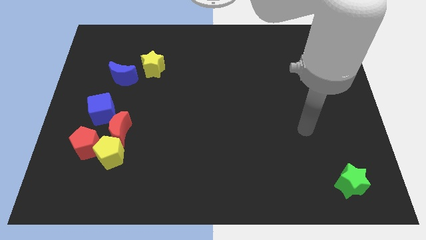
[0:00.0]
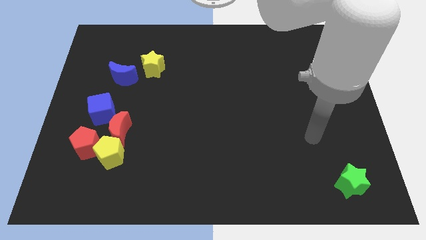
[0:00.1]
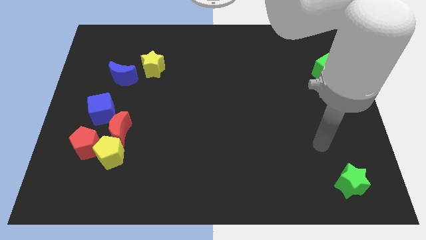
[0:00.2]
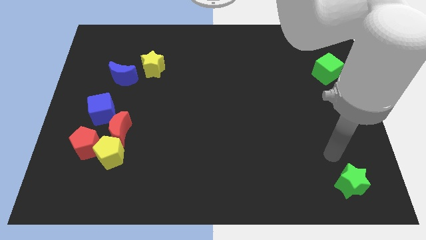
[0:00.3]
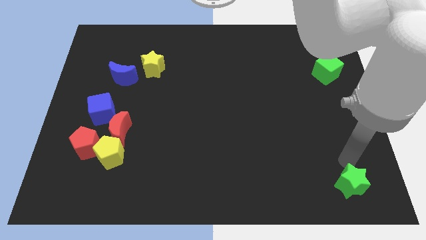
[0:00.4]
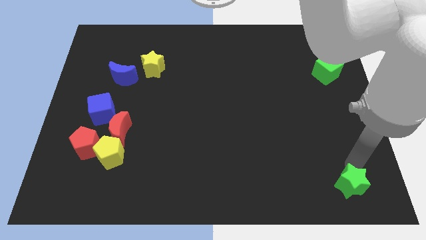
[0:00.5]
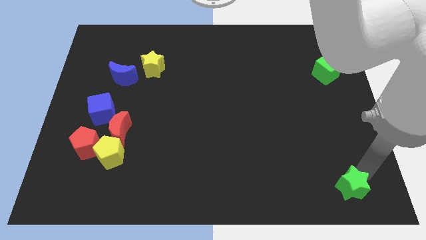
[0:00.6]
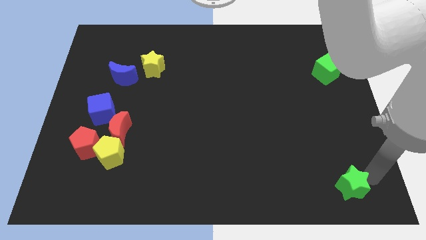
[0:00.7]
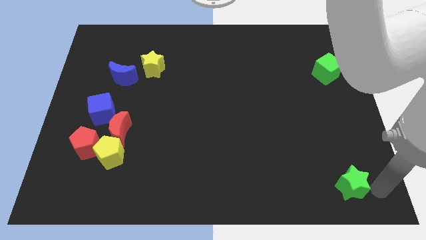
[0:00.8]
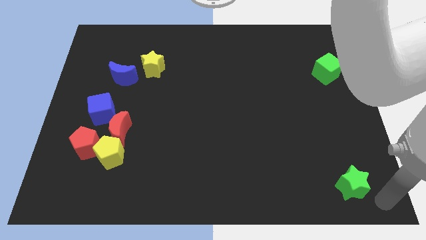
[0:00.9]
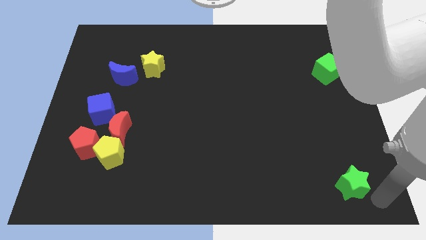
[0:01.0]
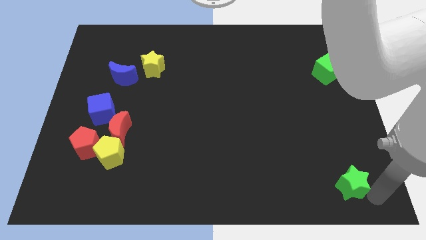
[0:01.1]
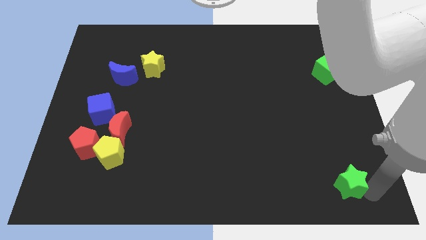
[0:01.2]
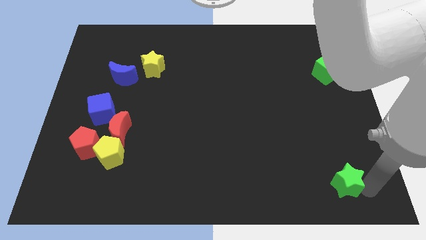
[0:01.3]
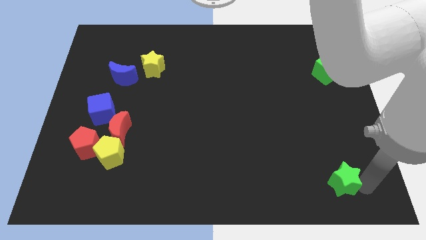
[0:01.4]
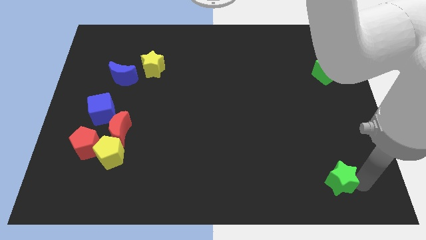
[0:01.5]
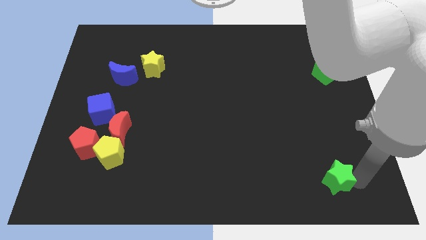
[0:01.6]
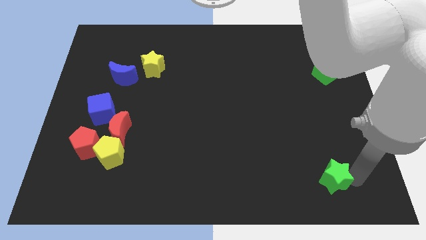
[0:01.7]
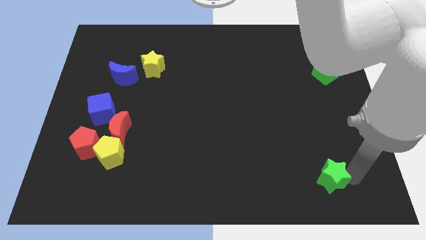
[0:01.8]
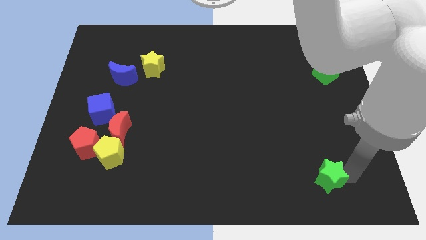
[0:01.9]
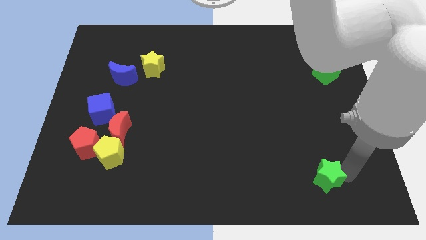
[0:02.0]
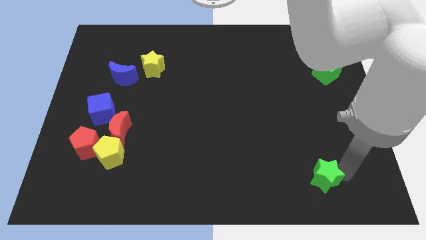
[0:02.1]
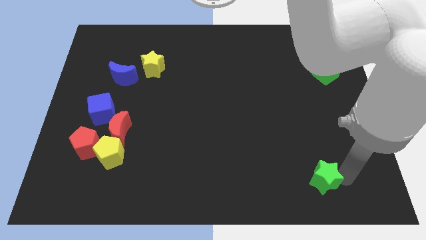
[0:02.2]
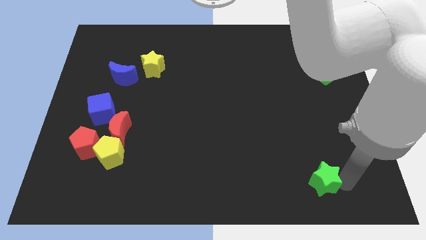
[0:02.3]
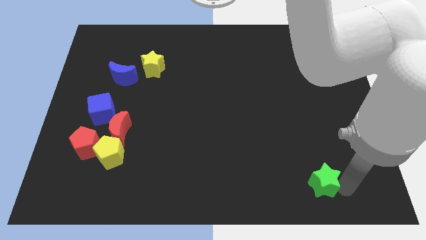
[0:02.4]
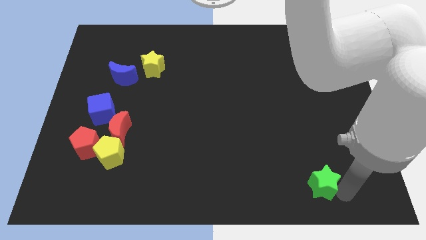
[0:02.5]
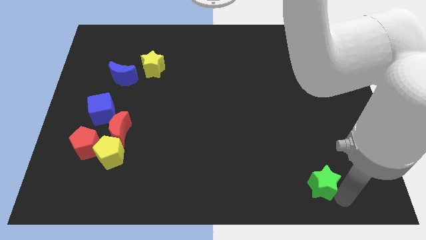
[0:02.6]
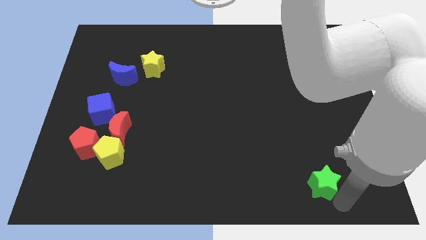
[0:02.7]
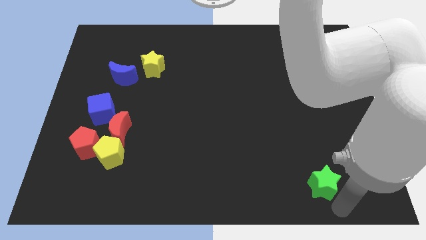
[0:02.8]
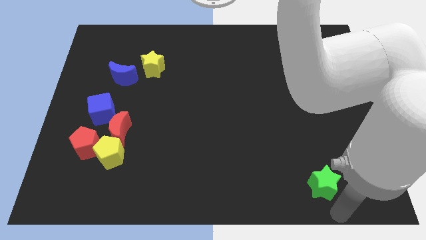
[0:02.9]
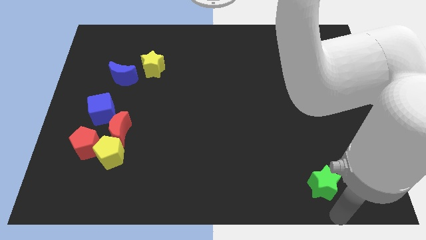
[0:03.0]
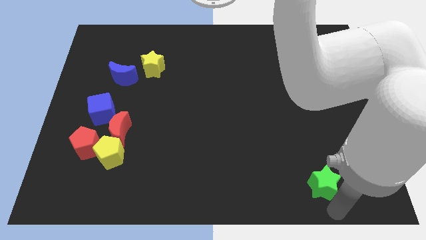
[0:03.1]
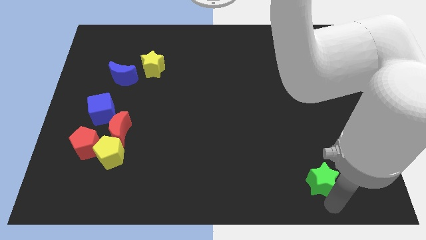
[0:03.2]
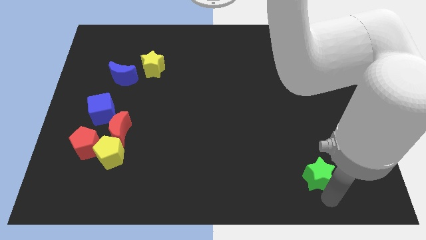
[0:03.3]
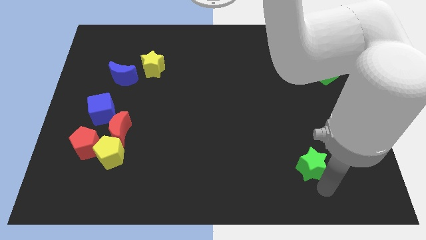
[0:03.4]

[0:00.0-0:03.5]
push the green star somewhat diagonally upwards and to the left

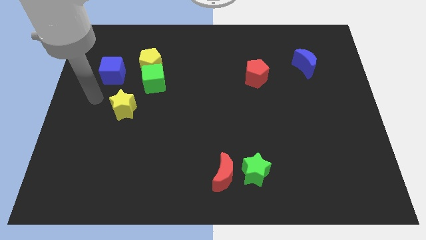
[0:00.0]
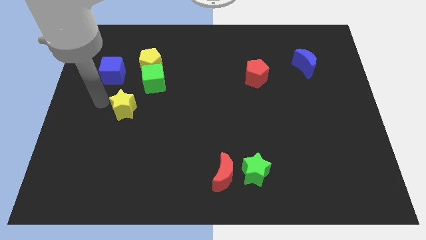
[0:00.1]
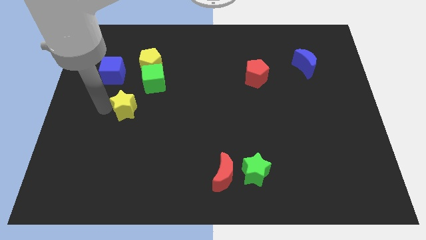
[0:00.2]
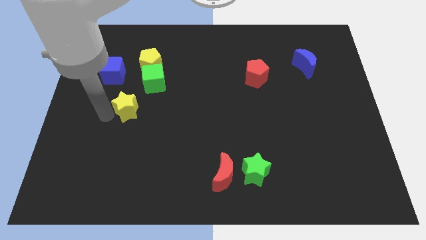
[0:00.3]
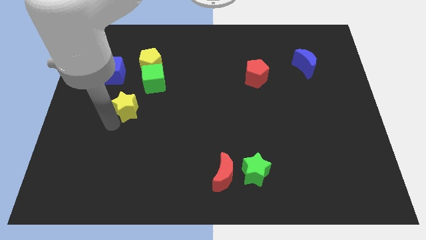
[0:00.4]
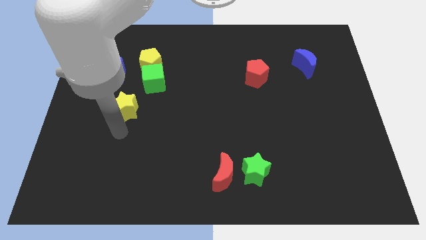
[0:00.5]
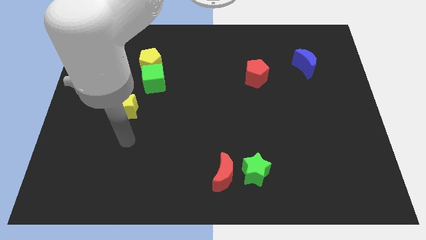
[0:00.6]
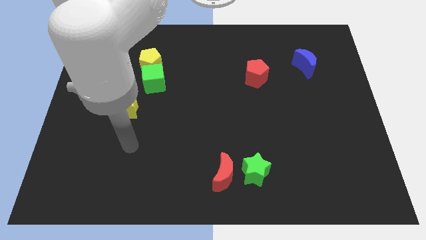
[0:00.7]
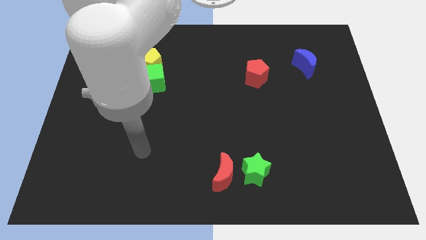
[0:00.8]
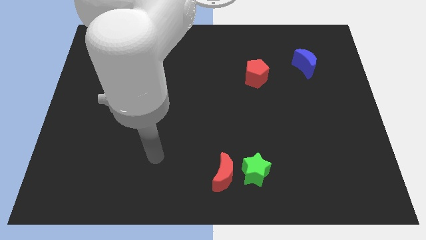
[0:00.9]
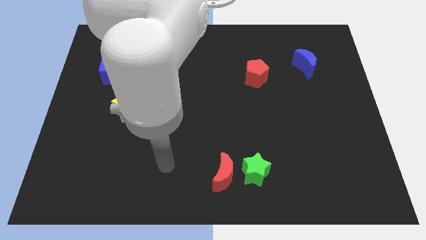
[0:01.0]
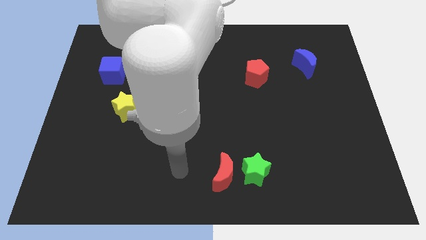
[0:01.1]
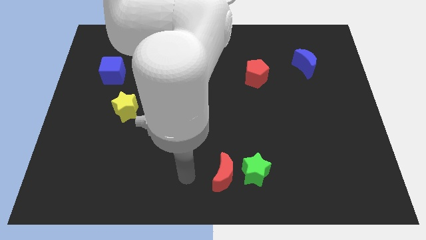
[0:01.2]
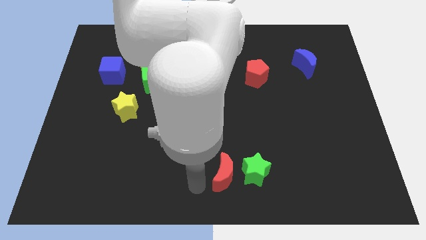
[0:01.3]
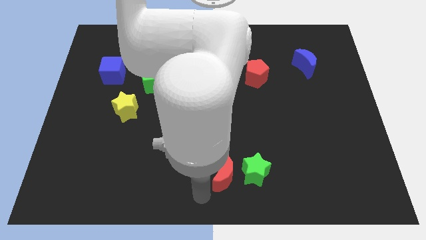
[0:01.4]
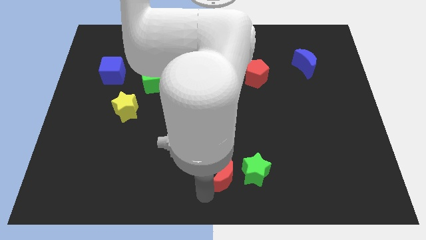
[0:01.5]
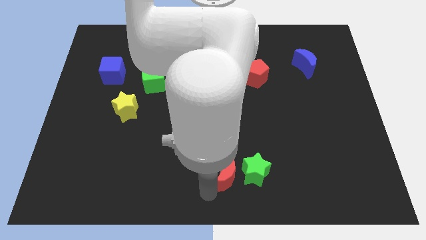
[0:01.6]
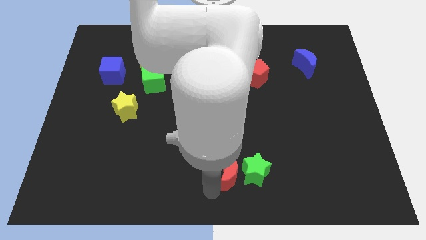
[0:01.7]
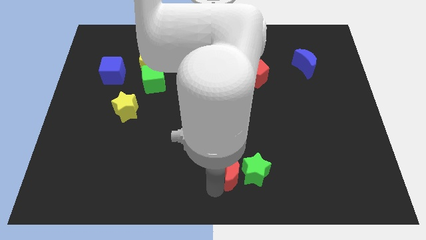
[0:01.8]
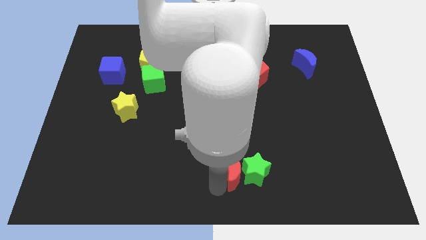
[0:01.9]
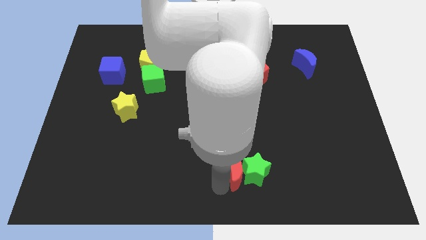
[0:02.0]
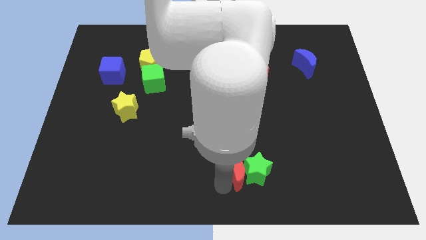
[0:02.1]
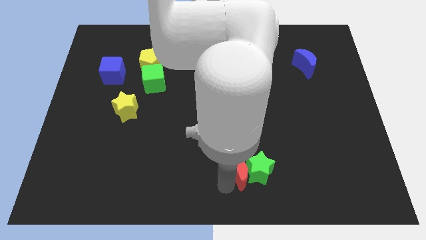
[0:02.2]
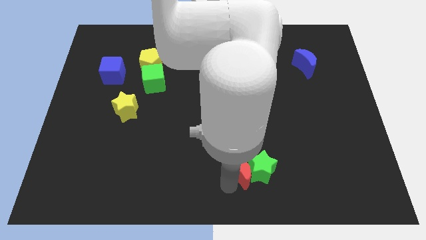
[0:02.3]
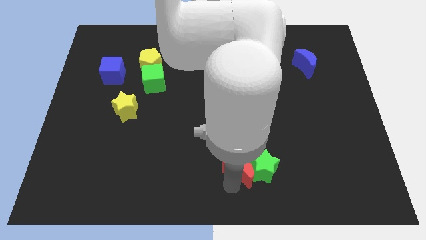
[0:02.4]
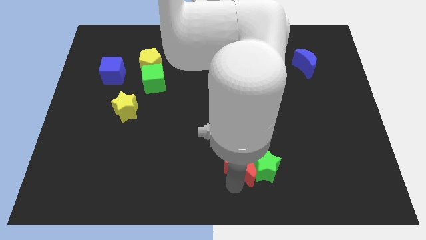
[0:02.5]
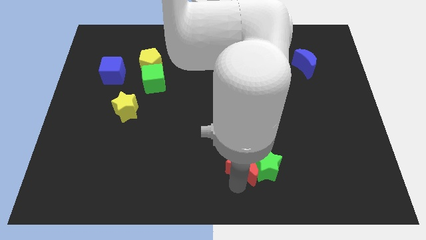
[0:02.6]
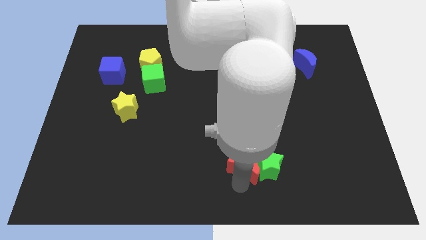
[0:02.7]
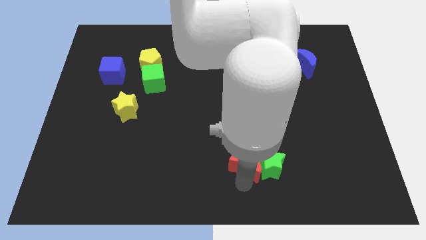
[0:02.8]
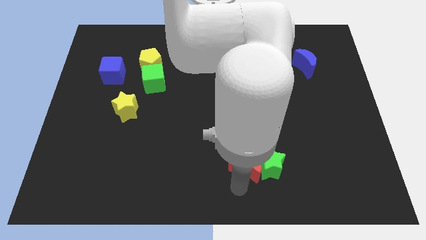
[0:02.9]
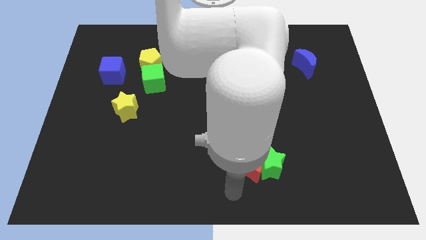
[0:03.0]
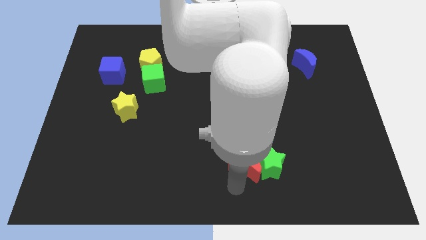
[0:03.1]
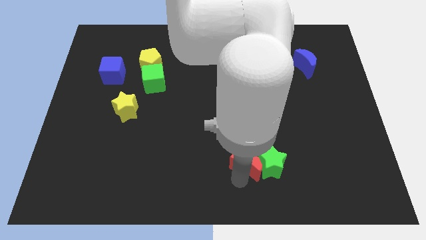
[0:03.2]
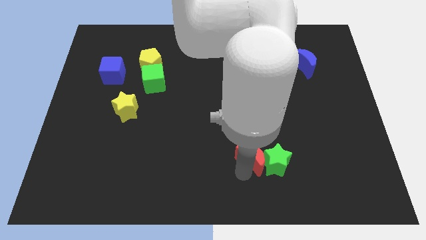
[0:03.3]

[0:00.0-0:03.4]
move the red moon up and right slightly

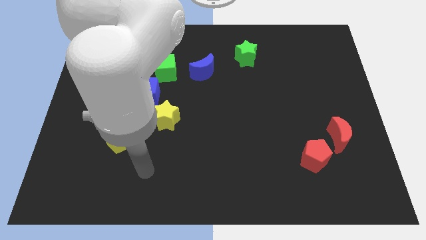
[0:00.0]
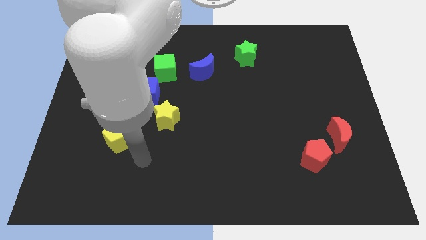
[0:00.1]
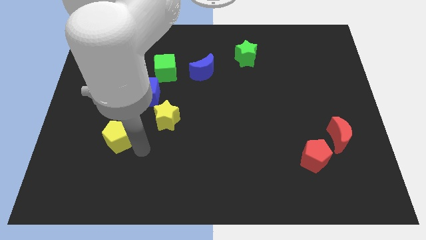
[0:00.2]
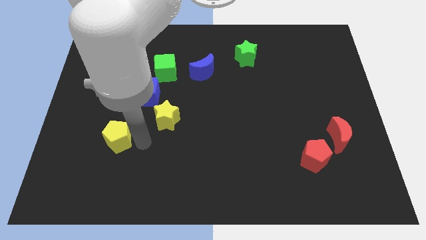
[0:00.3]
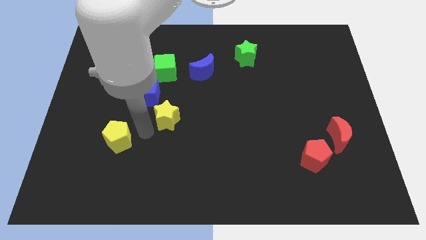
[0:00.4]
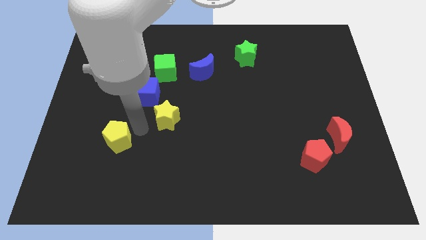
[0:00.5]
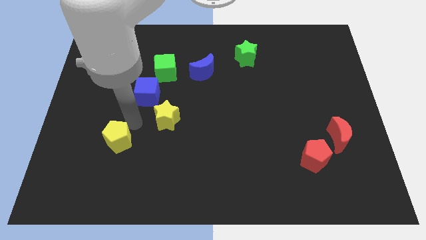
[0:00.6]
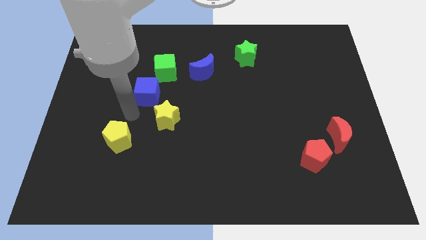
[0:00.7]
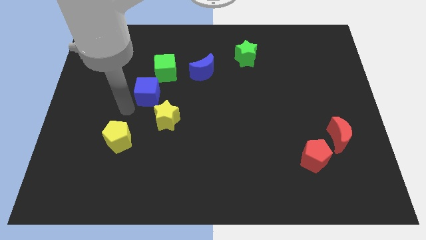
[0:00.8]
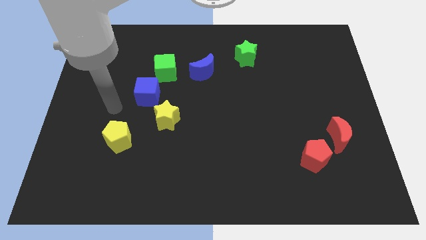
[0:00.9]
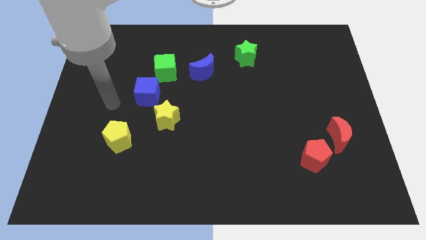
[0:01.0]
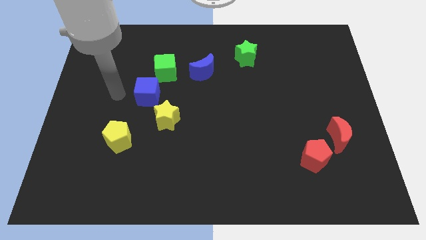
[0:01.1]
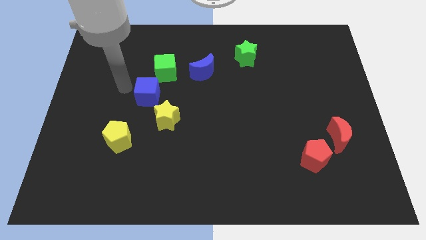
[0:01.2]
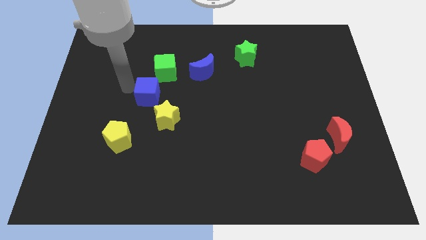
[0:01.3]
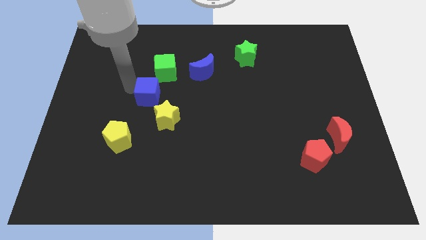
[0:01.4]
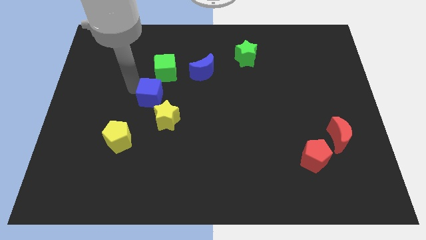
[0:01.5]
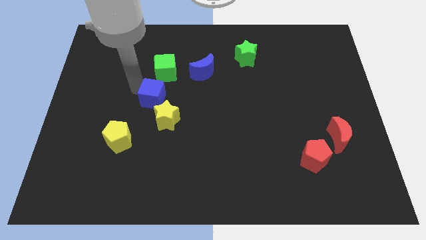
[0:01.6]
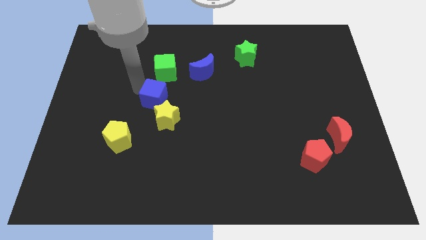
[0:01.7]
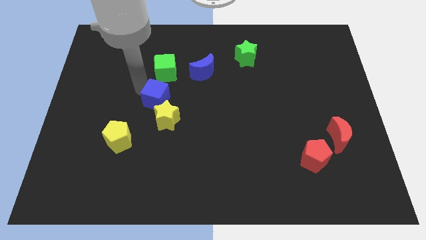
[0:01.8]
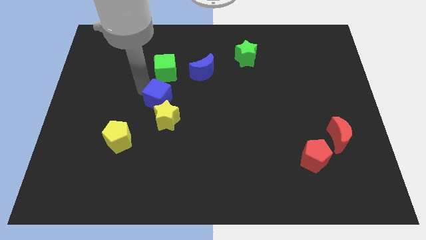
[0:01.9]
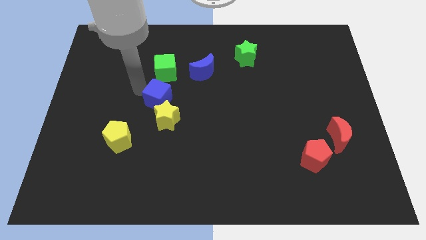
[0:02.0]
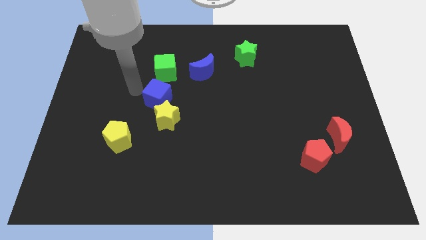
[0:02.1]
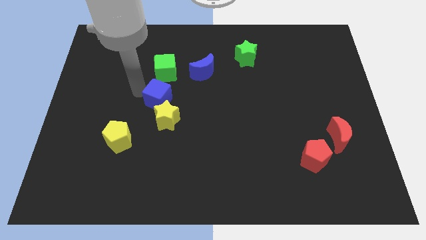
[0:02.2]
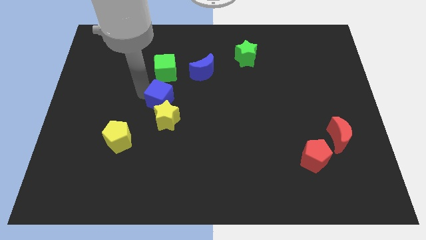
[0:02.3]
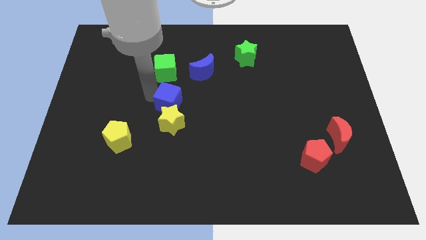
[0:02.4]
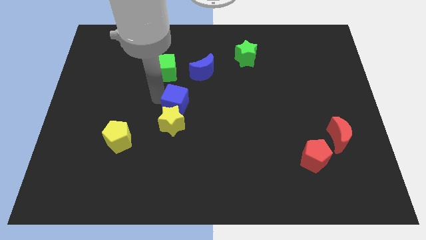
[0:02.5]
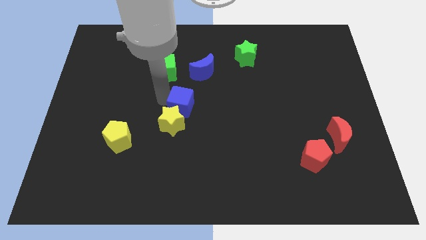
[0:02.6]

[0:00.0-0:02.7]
move the blue cube somewhat downwards and to the right diagonally
